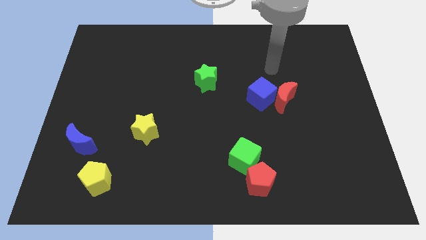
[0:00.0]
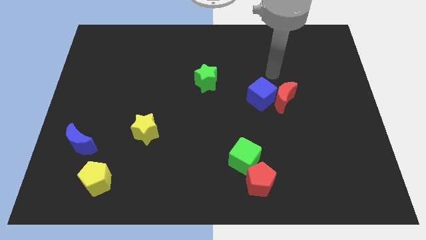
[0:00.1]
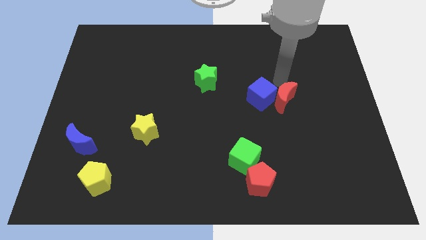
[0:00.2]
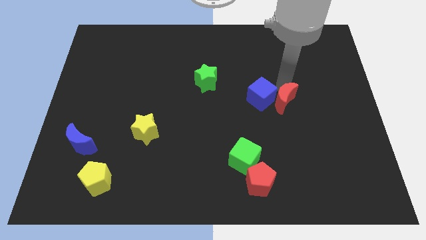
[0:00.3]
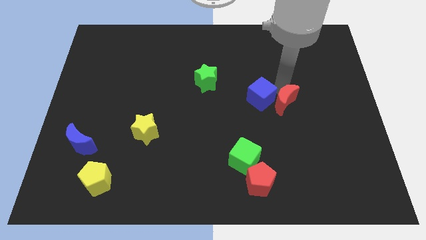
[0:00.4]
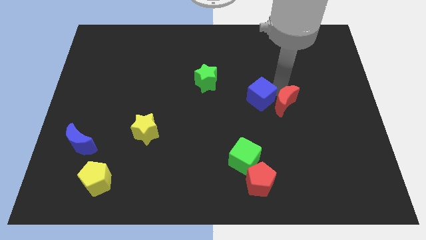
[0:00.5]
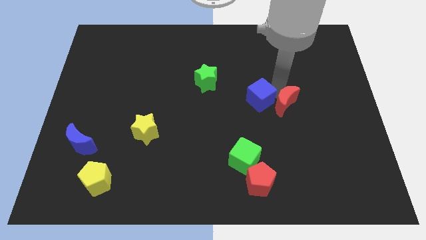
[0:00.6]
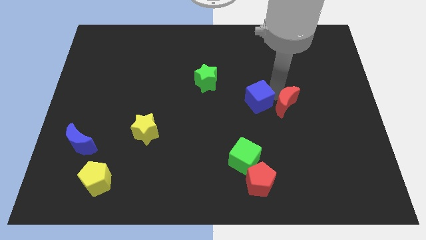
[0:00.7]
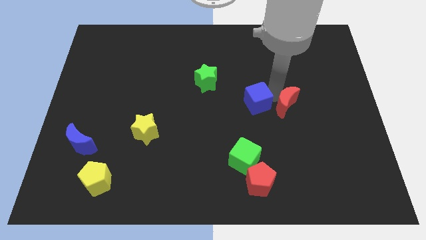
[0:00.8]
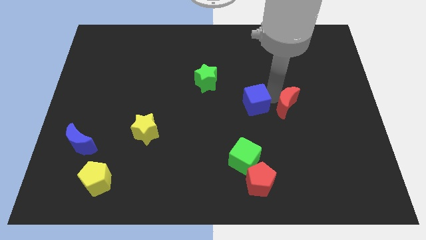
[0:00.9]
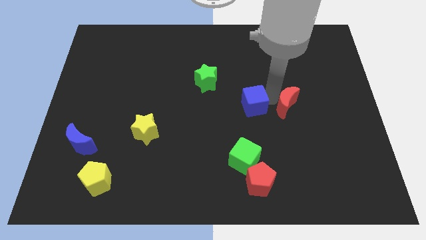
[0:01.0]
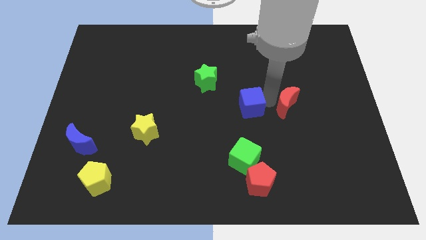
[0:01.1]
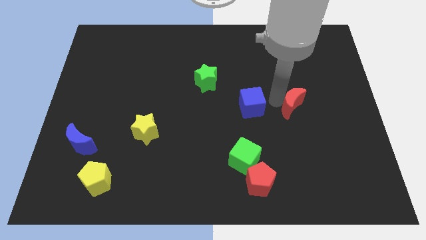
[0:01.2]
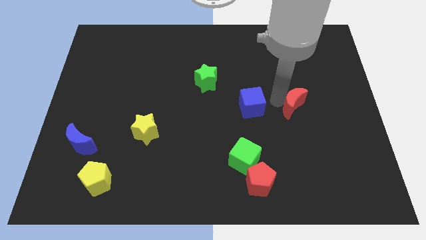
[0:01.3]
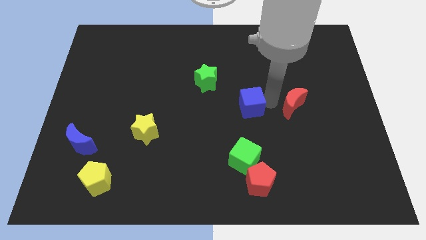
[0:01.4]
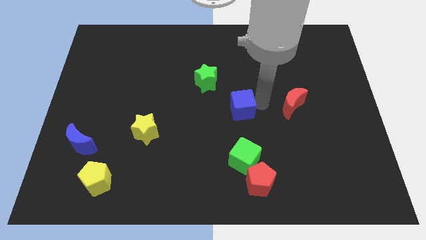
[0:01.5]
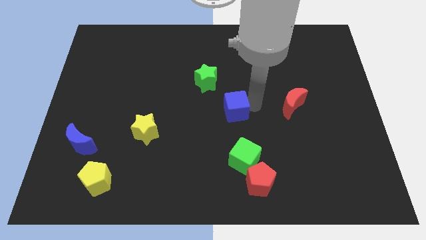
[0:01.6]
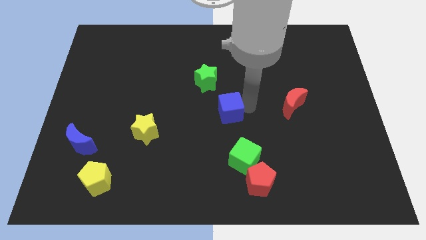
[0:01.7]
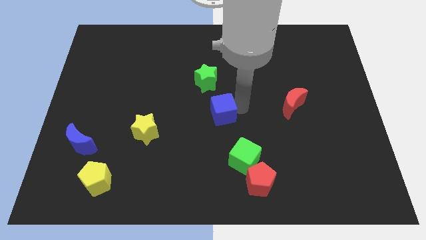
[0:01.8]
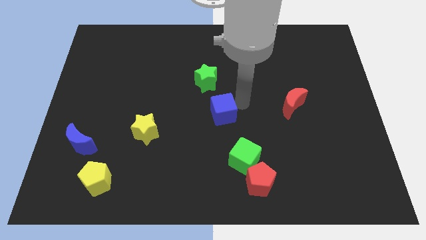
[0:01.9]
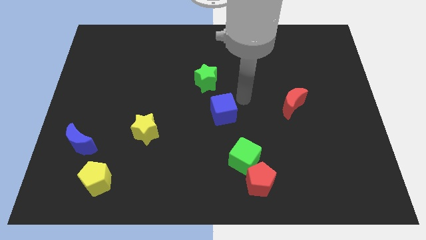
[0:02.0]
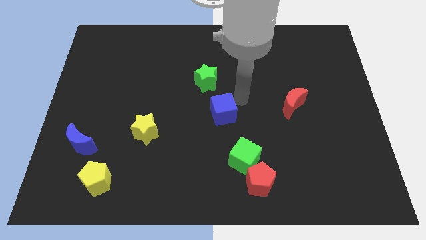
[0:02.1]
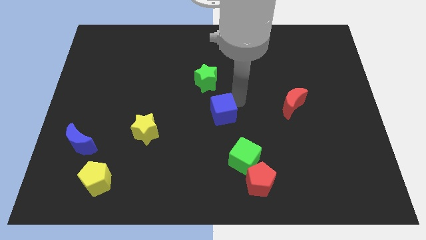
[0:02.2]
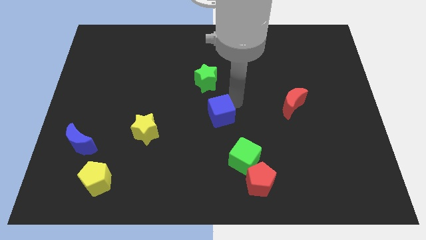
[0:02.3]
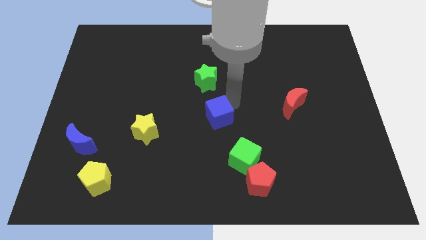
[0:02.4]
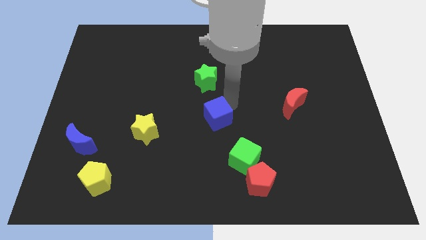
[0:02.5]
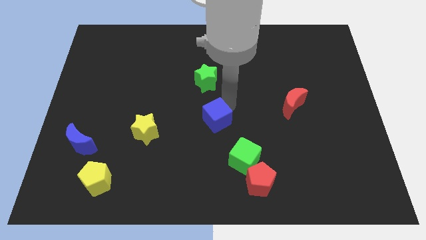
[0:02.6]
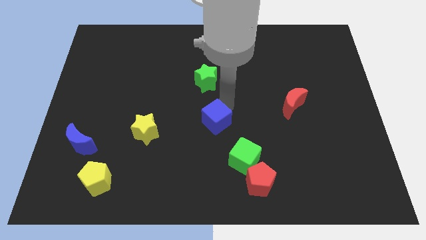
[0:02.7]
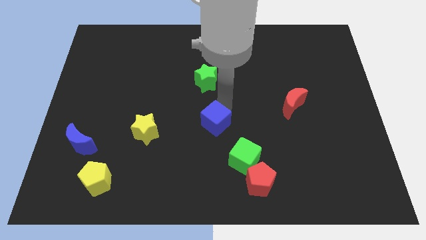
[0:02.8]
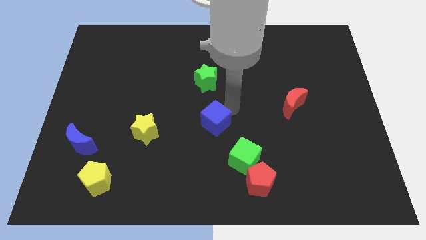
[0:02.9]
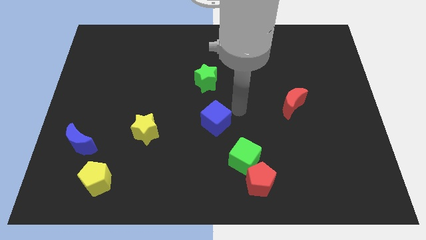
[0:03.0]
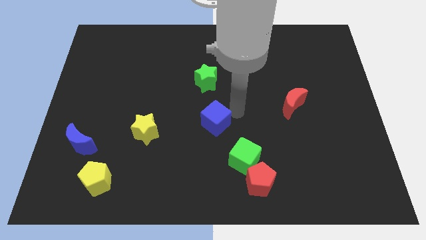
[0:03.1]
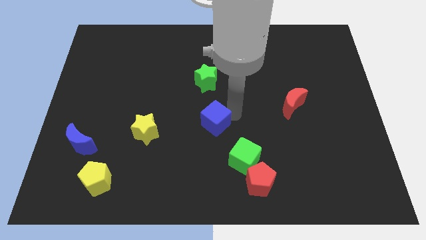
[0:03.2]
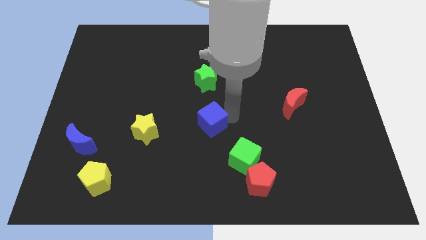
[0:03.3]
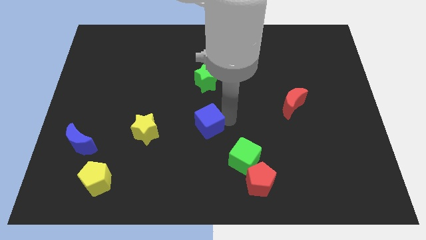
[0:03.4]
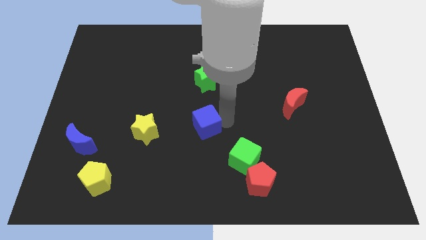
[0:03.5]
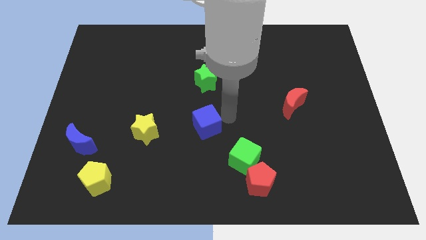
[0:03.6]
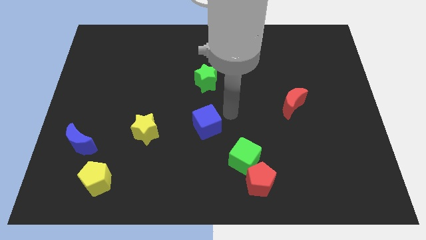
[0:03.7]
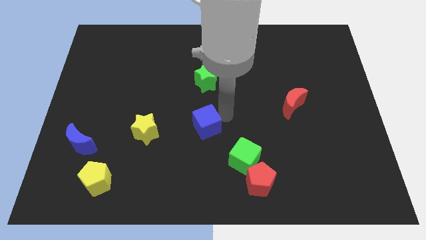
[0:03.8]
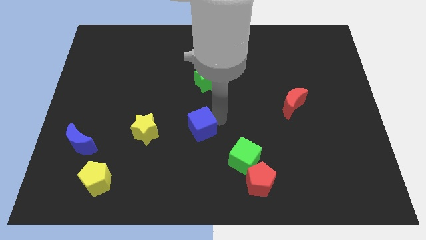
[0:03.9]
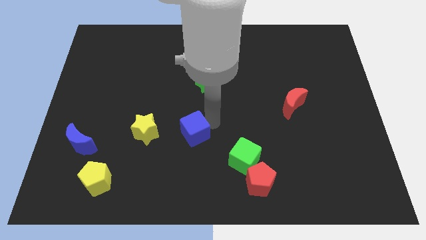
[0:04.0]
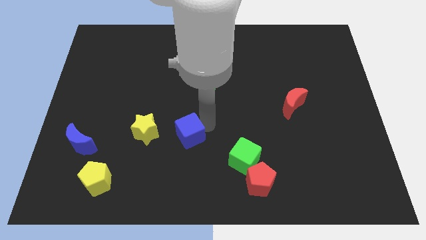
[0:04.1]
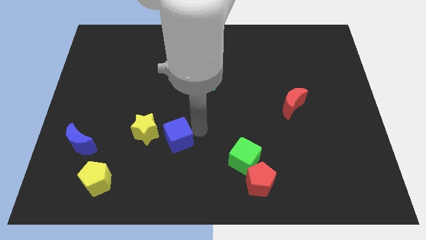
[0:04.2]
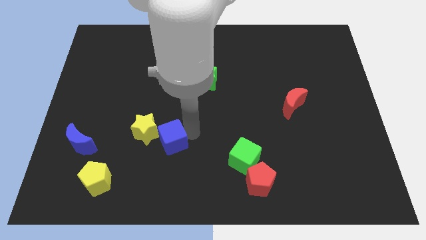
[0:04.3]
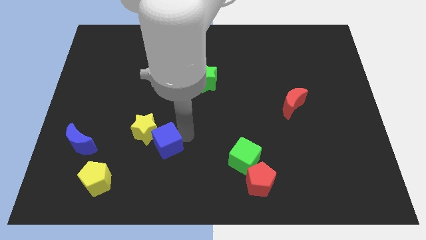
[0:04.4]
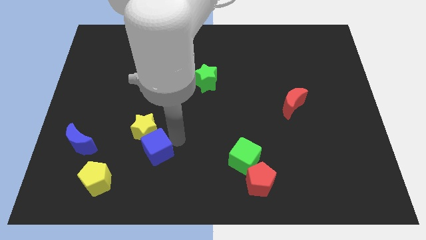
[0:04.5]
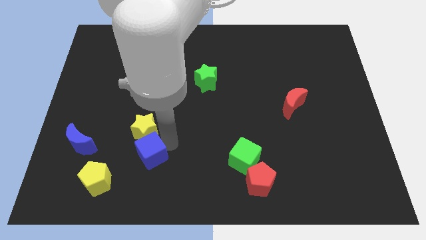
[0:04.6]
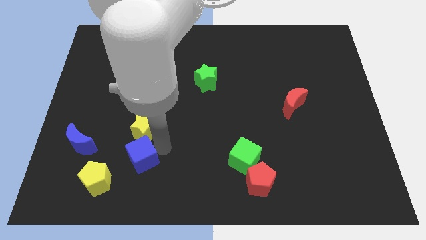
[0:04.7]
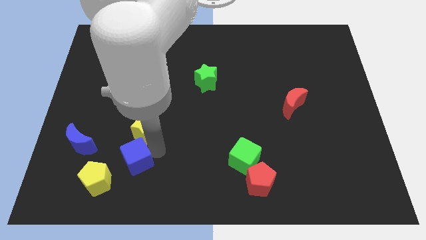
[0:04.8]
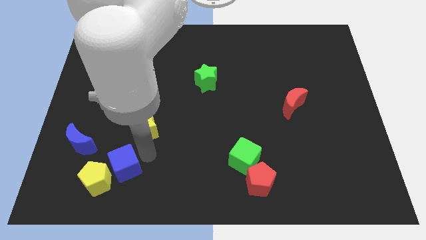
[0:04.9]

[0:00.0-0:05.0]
slide the blue cube close to the yellow pentagon

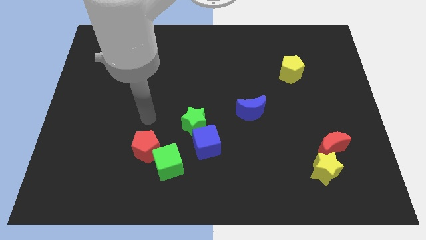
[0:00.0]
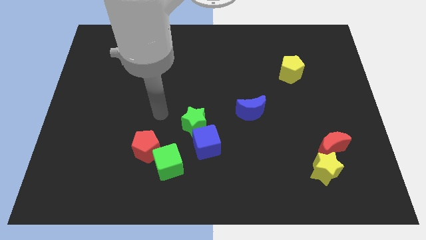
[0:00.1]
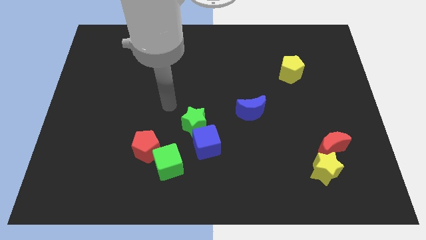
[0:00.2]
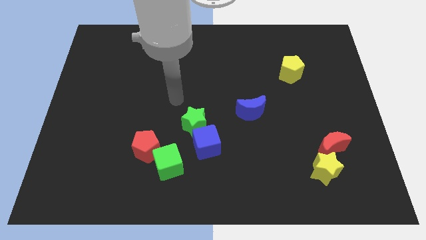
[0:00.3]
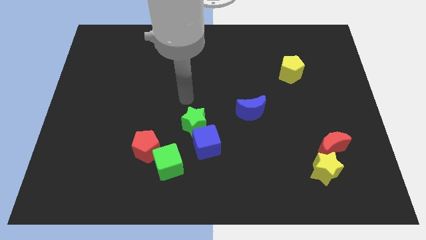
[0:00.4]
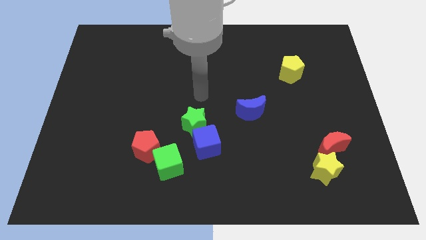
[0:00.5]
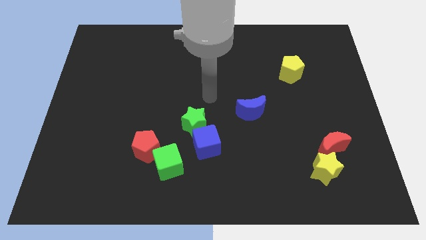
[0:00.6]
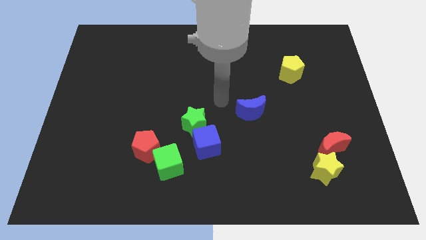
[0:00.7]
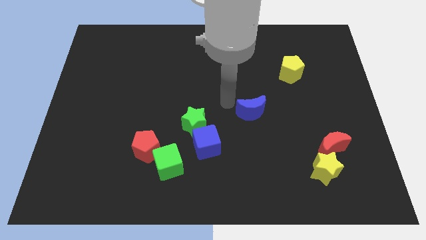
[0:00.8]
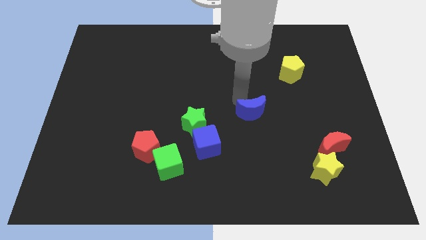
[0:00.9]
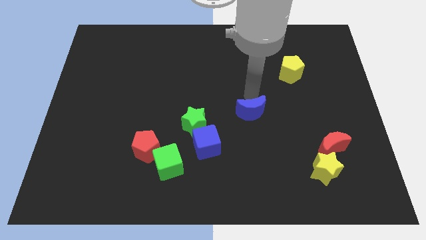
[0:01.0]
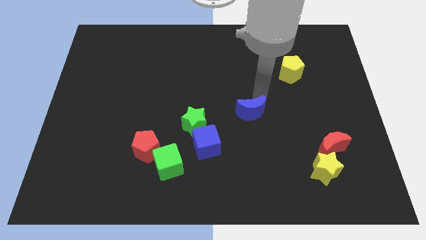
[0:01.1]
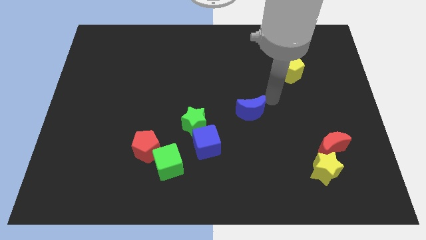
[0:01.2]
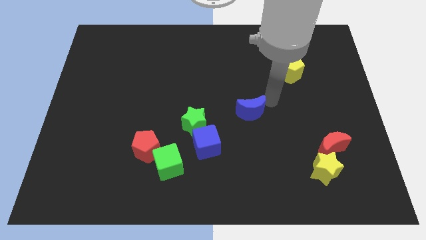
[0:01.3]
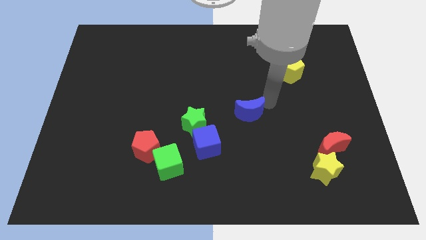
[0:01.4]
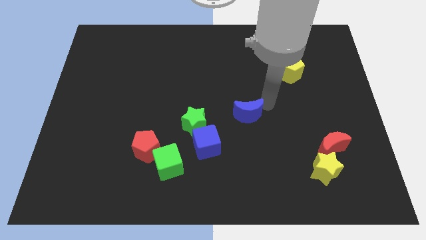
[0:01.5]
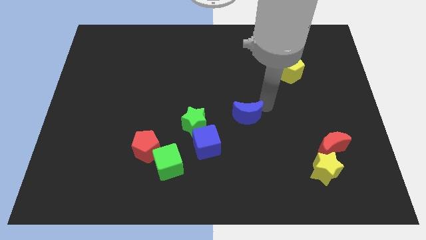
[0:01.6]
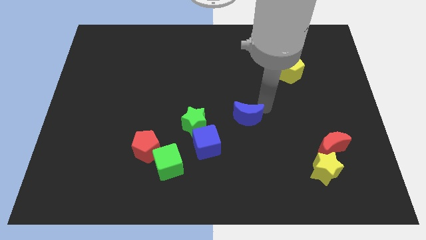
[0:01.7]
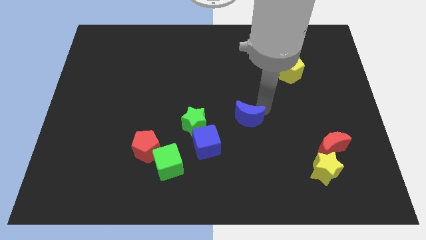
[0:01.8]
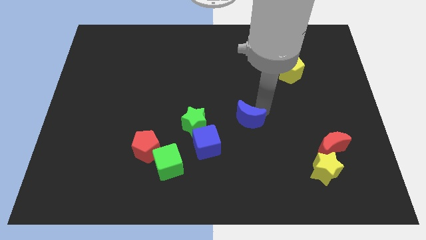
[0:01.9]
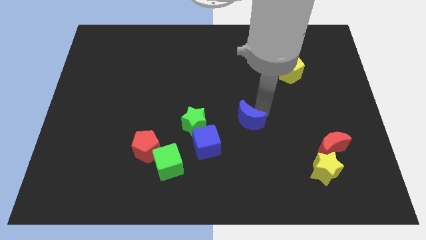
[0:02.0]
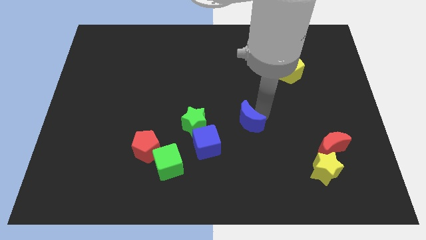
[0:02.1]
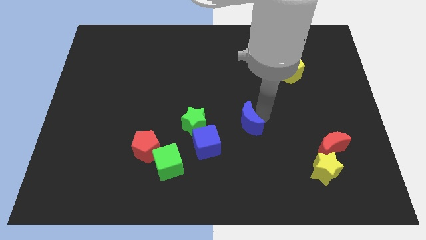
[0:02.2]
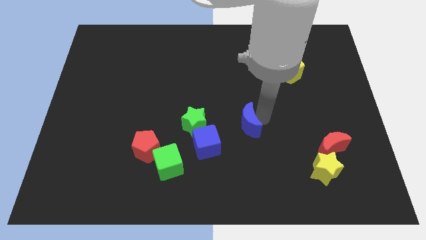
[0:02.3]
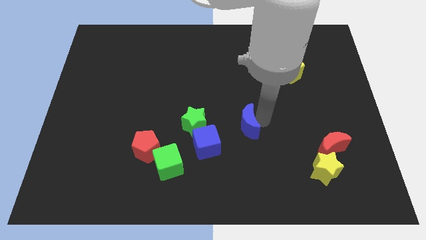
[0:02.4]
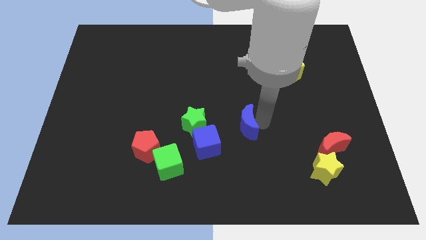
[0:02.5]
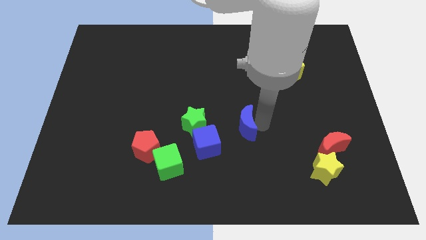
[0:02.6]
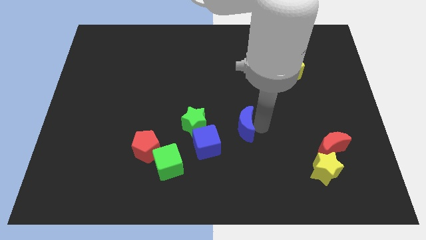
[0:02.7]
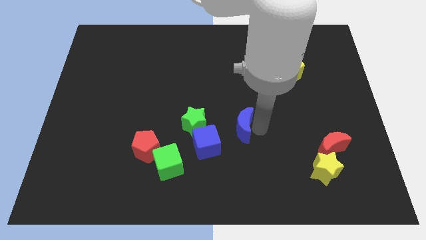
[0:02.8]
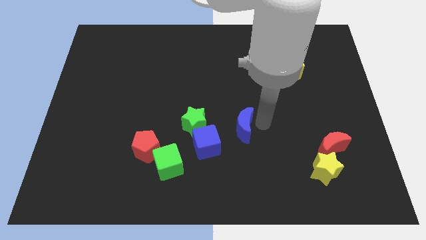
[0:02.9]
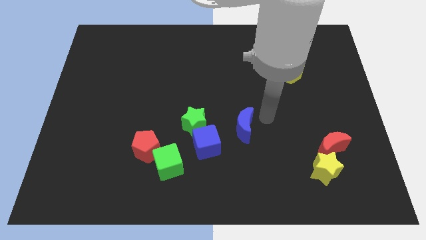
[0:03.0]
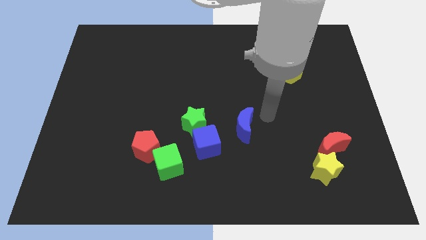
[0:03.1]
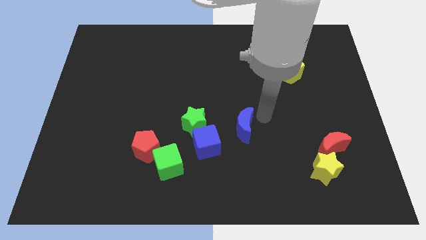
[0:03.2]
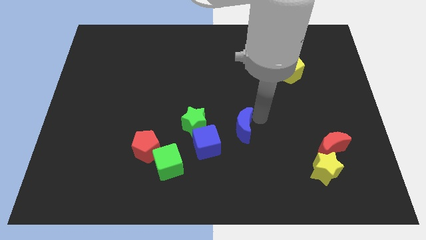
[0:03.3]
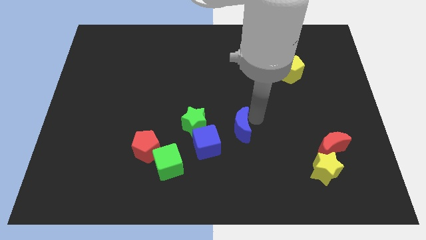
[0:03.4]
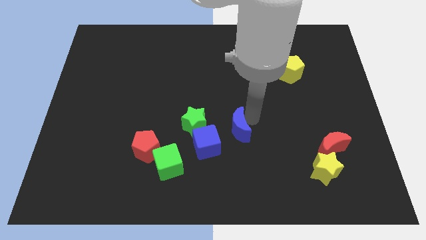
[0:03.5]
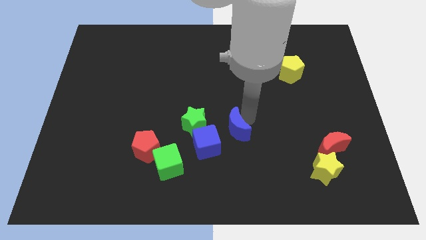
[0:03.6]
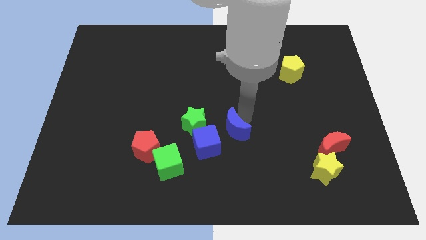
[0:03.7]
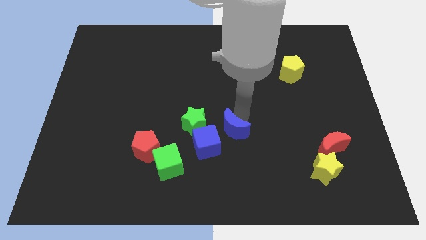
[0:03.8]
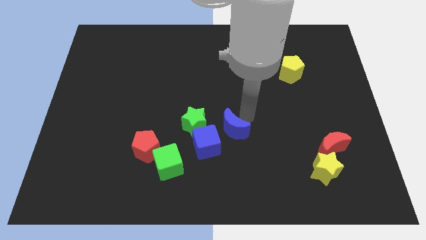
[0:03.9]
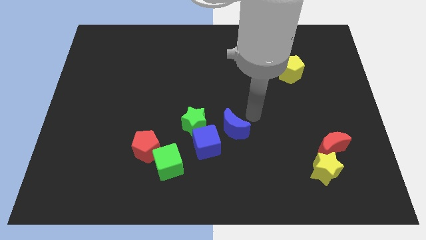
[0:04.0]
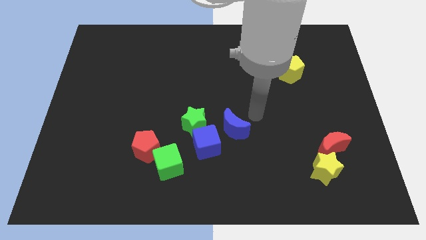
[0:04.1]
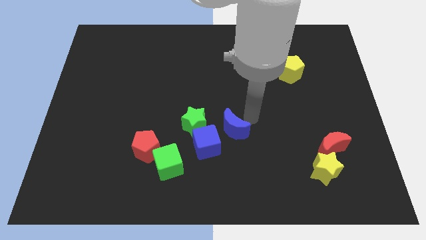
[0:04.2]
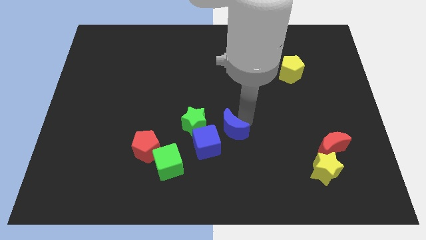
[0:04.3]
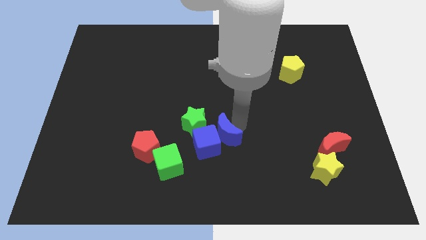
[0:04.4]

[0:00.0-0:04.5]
move the blue moon towards the blue cube
